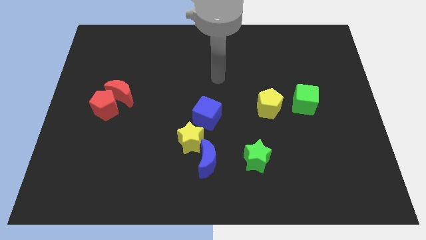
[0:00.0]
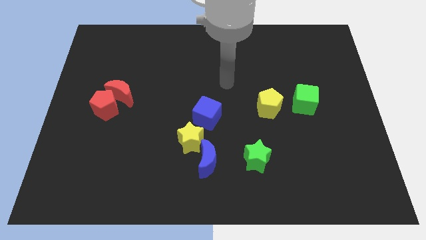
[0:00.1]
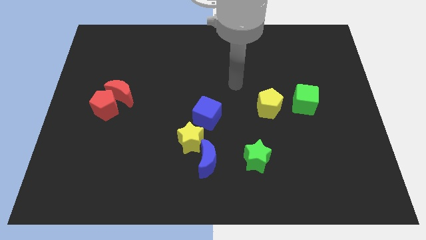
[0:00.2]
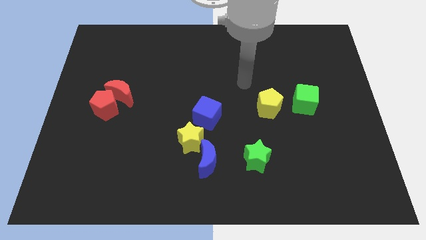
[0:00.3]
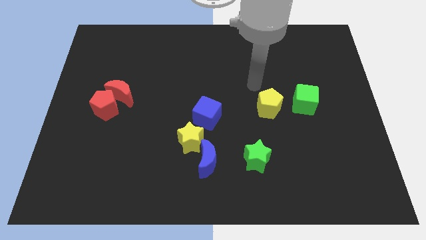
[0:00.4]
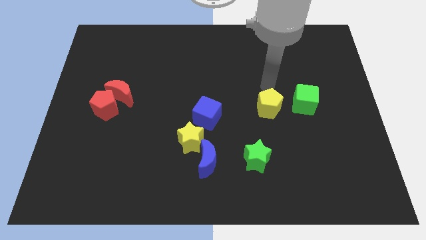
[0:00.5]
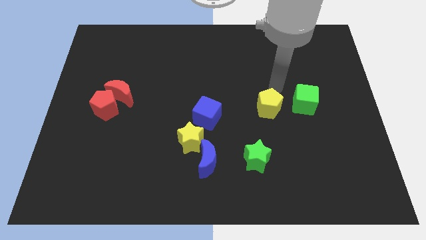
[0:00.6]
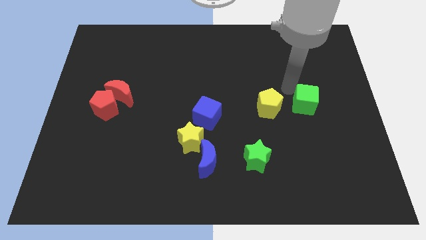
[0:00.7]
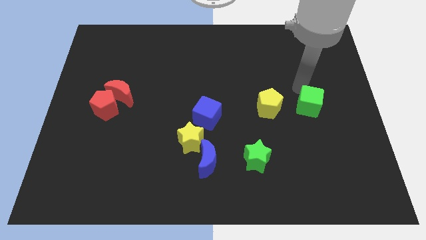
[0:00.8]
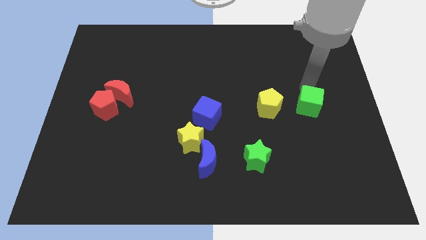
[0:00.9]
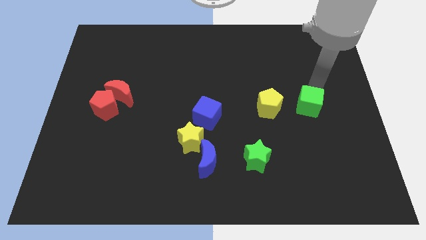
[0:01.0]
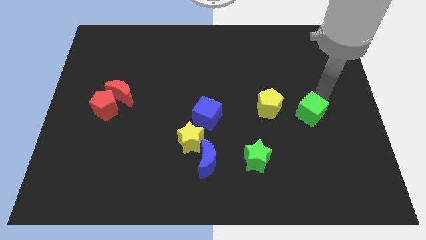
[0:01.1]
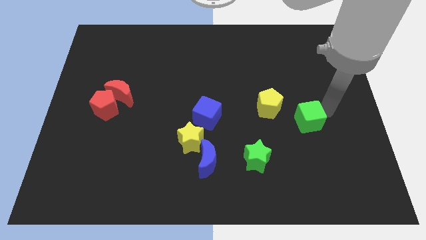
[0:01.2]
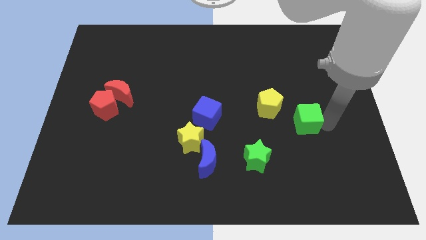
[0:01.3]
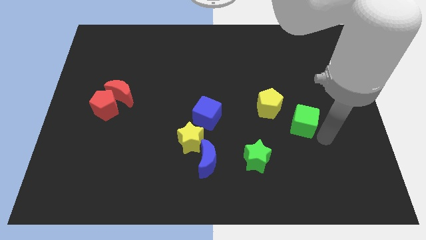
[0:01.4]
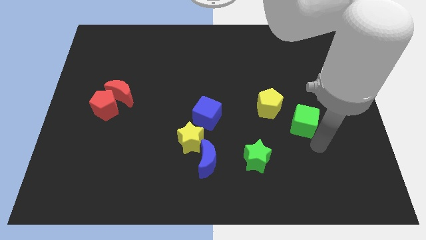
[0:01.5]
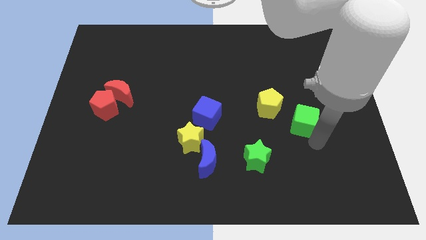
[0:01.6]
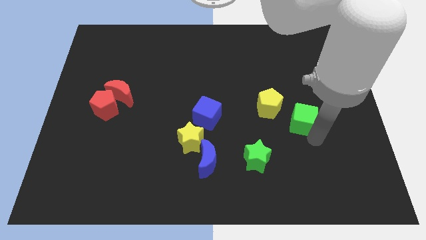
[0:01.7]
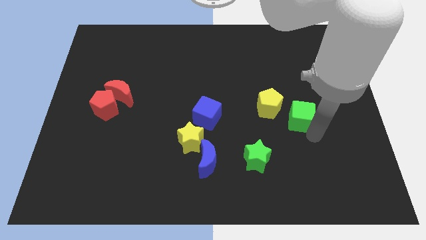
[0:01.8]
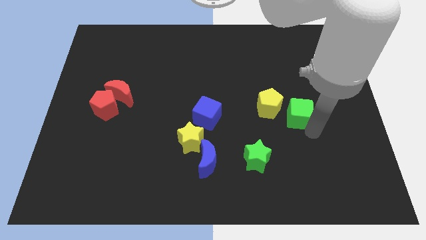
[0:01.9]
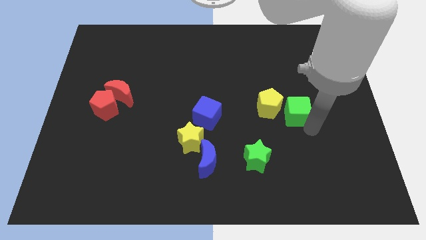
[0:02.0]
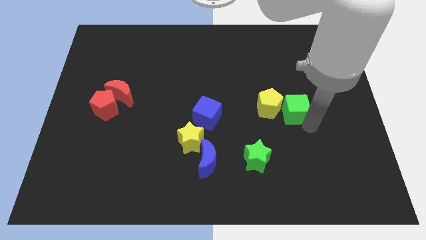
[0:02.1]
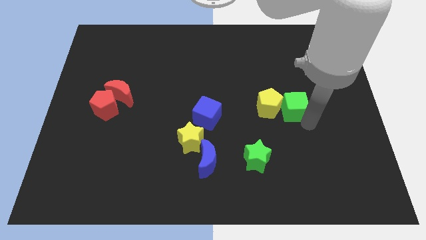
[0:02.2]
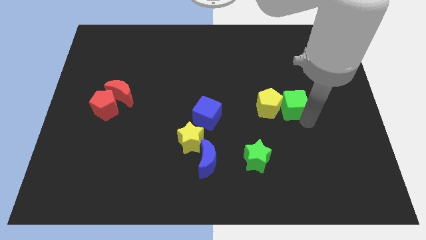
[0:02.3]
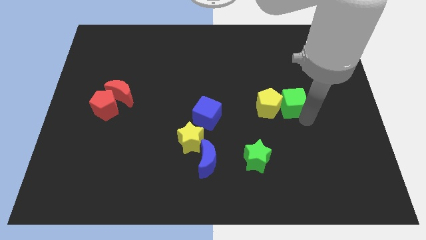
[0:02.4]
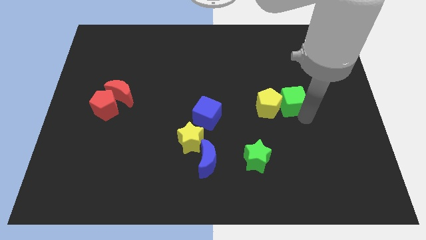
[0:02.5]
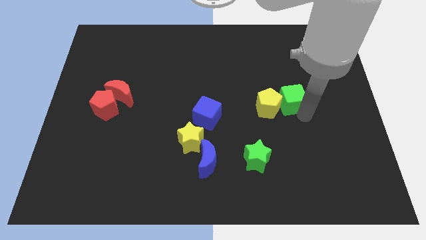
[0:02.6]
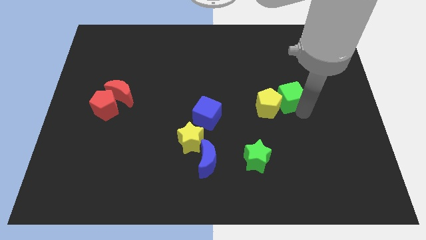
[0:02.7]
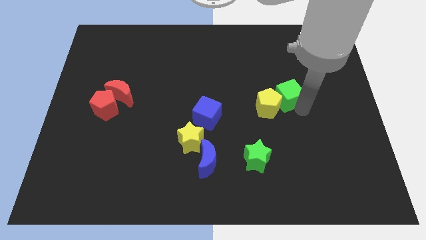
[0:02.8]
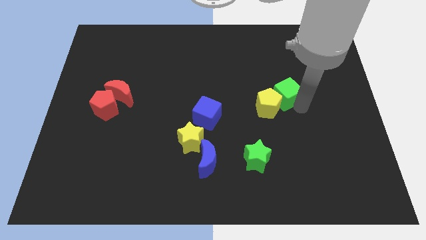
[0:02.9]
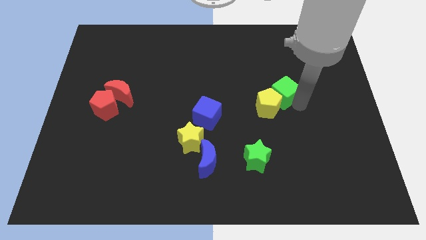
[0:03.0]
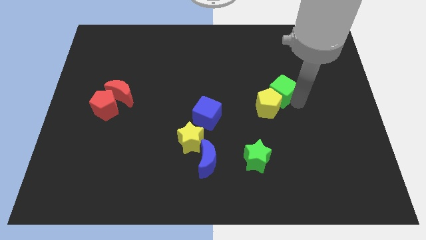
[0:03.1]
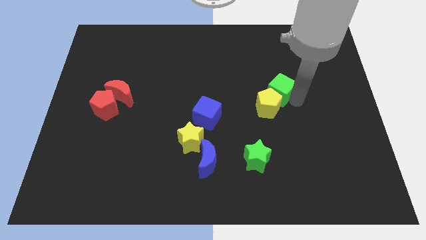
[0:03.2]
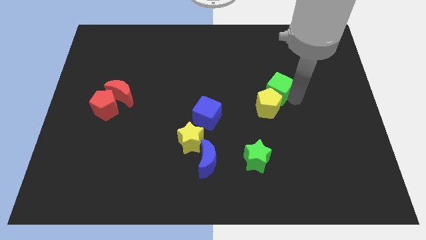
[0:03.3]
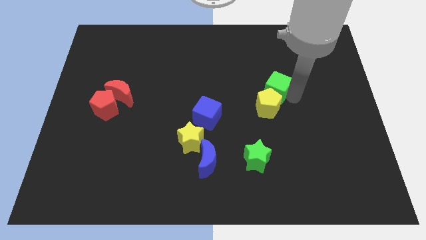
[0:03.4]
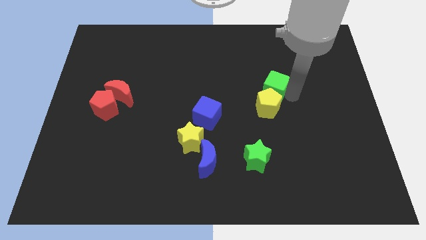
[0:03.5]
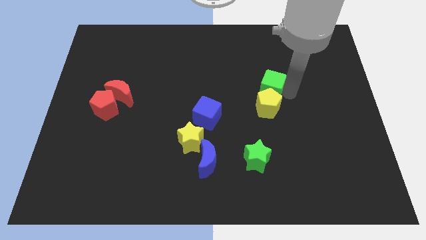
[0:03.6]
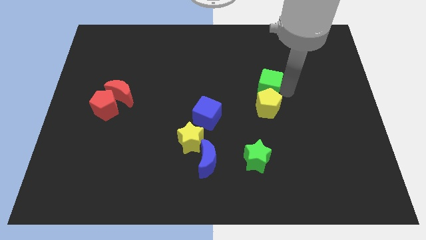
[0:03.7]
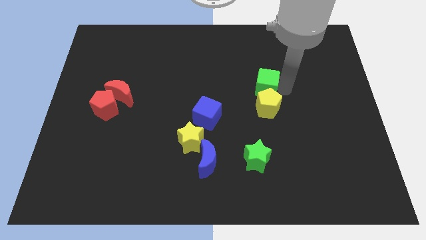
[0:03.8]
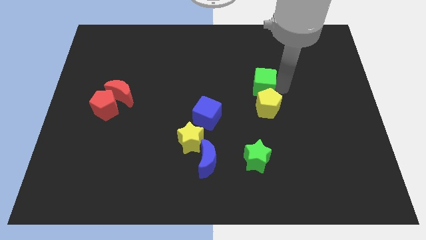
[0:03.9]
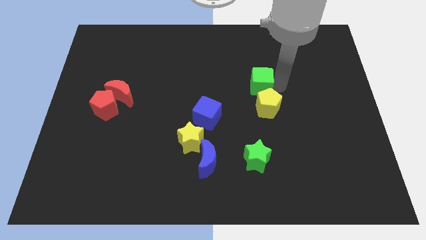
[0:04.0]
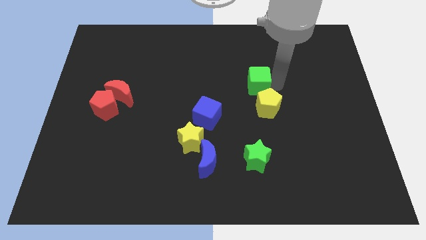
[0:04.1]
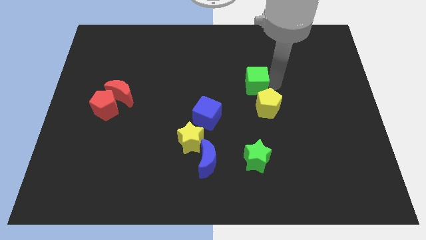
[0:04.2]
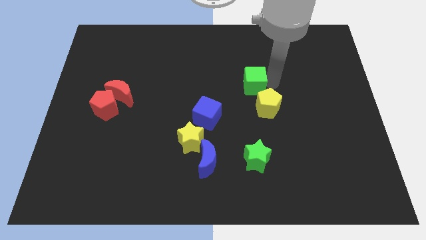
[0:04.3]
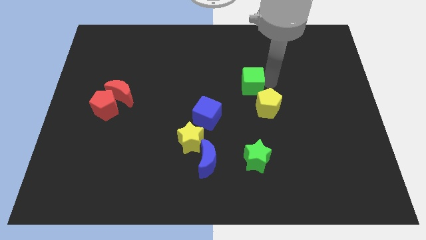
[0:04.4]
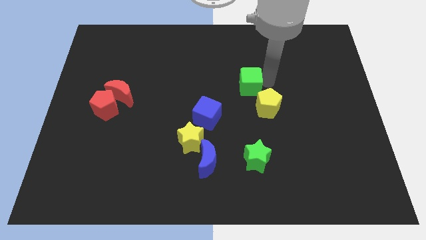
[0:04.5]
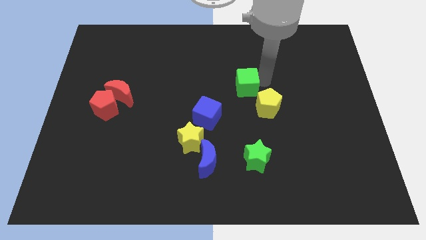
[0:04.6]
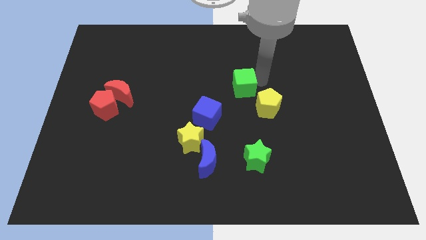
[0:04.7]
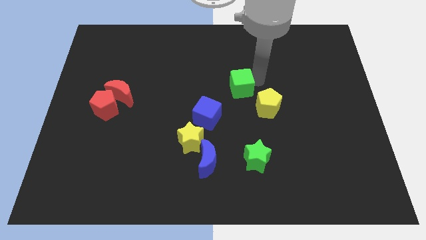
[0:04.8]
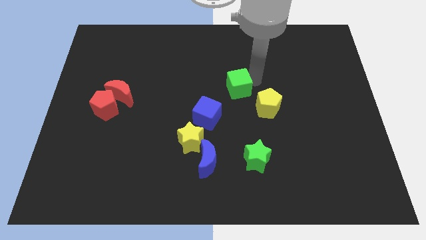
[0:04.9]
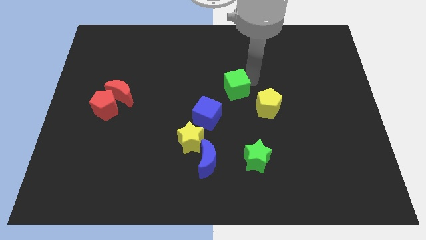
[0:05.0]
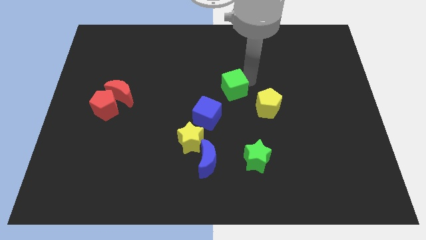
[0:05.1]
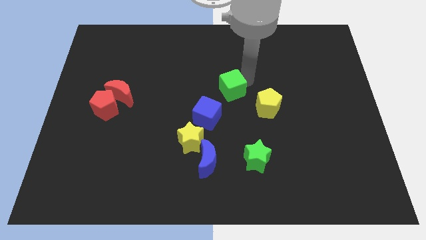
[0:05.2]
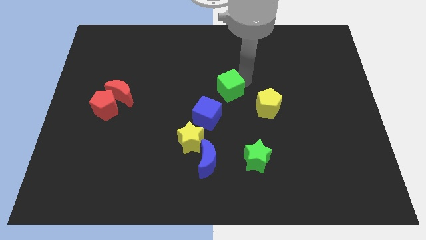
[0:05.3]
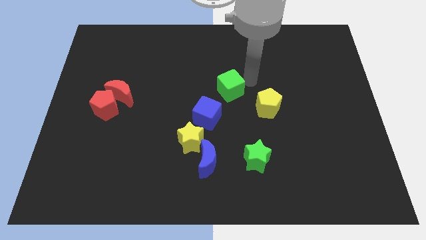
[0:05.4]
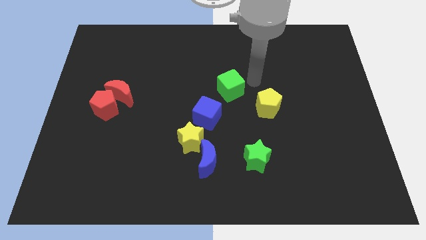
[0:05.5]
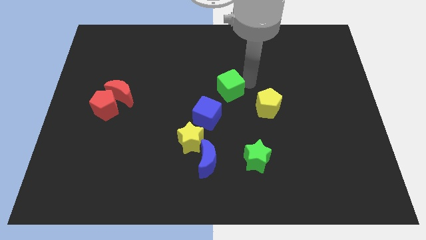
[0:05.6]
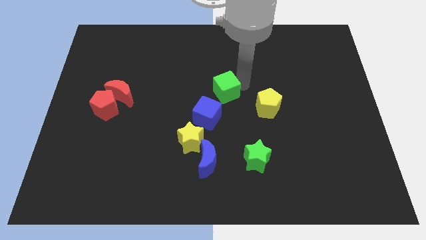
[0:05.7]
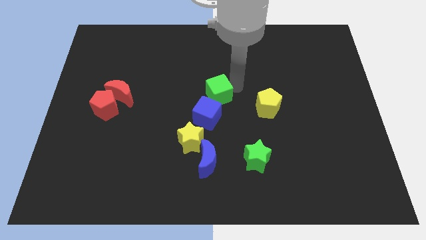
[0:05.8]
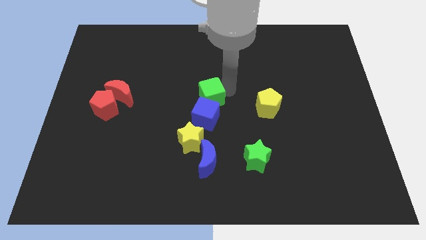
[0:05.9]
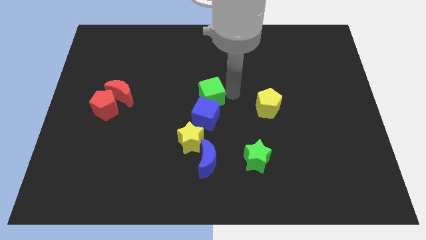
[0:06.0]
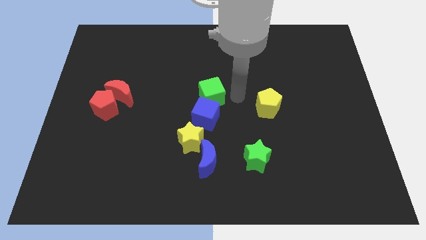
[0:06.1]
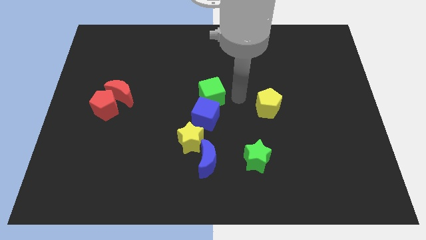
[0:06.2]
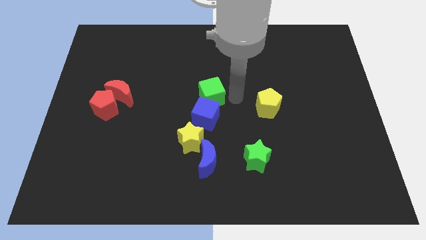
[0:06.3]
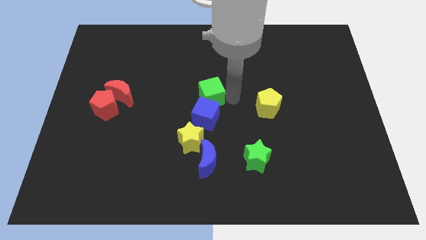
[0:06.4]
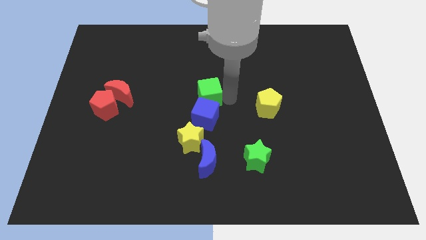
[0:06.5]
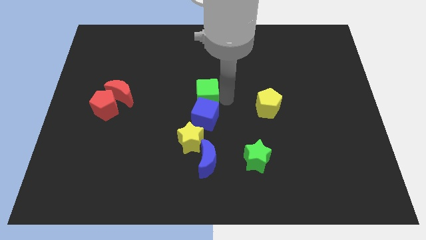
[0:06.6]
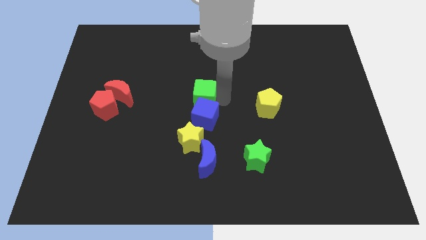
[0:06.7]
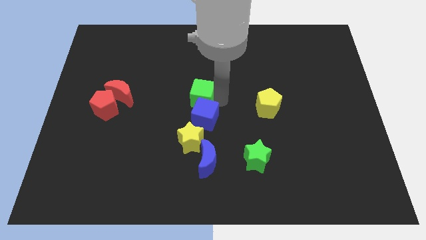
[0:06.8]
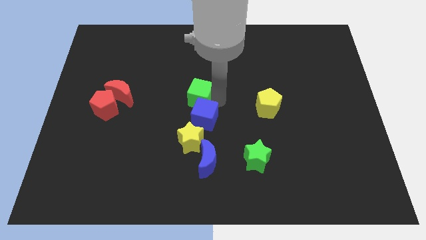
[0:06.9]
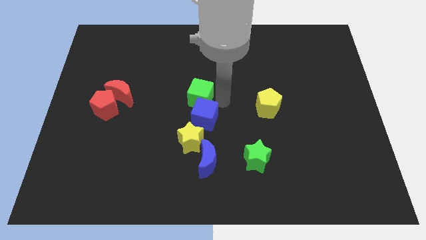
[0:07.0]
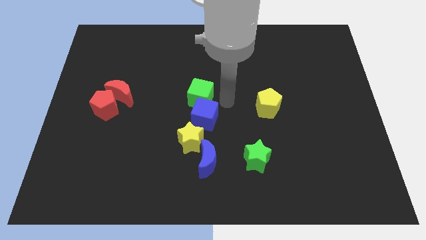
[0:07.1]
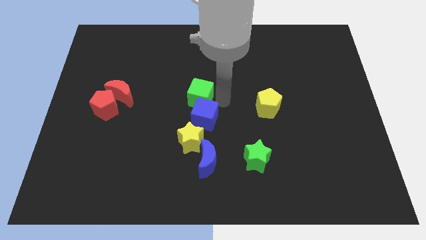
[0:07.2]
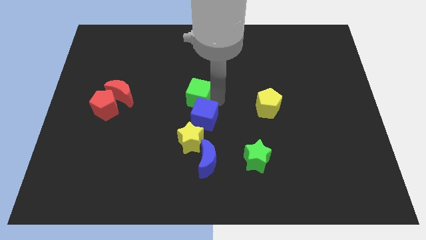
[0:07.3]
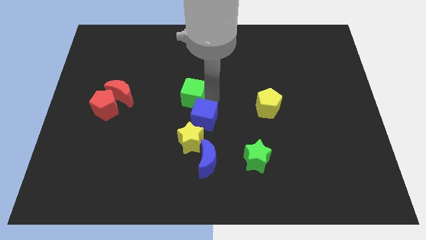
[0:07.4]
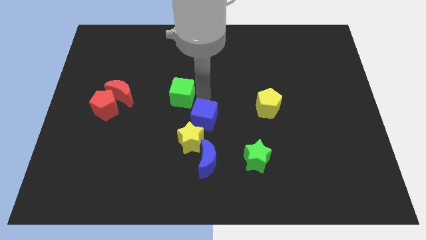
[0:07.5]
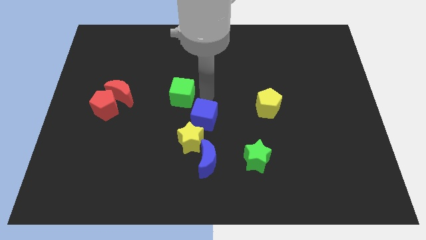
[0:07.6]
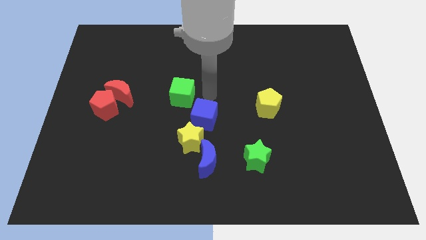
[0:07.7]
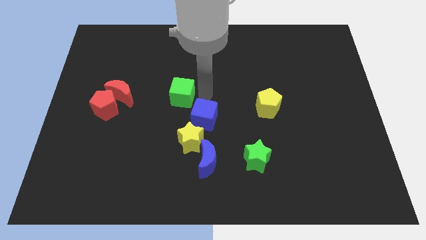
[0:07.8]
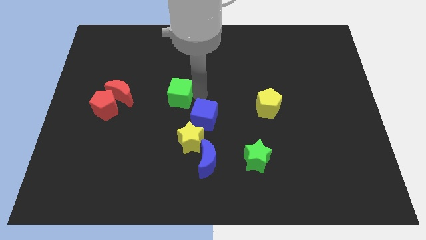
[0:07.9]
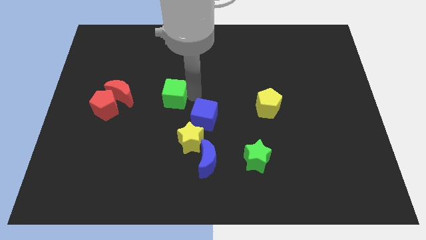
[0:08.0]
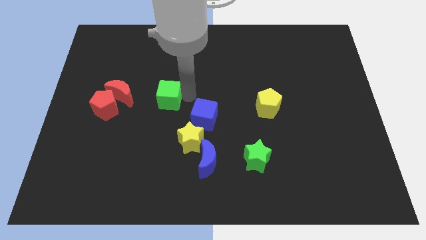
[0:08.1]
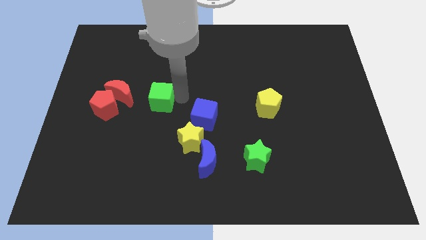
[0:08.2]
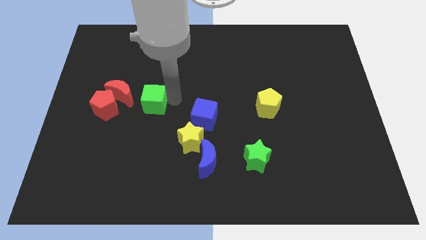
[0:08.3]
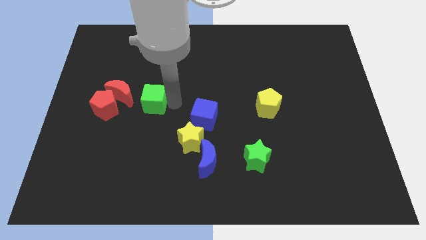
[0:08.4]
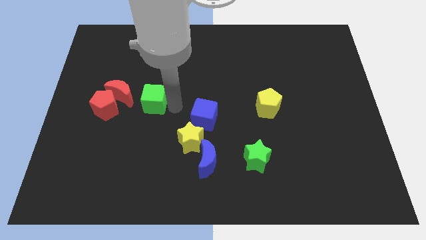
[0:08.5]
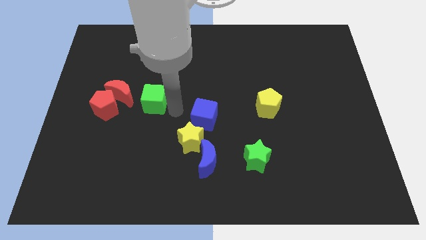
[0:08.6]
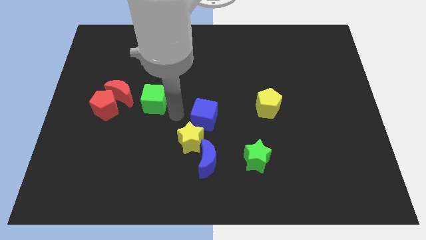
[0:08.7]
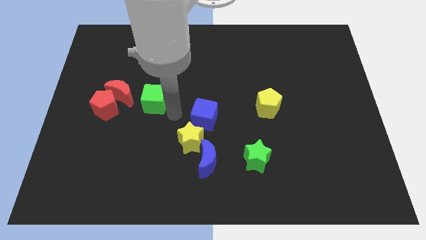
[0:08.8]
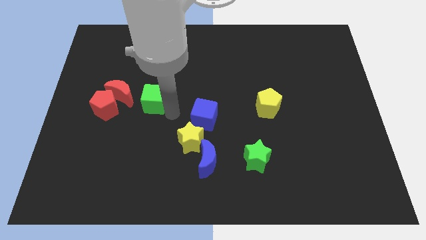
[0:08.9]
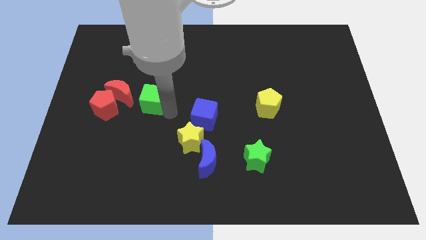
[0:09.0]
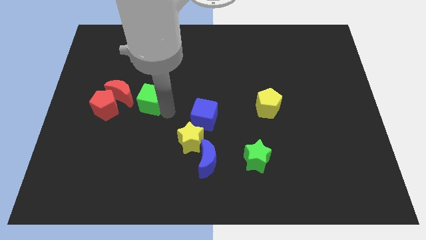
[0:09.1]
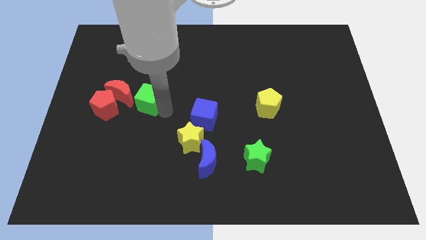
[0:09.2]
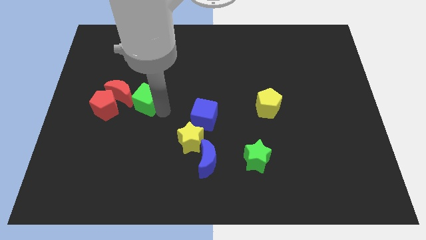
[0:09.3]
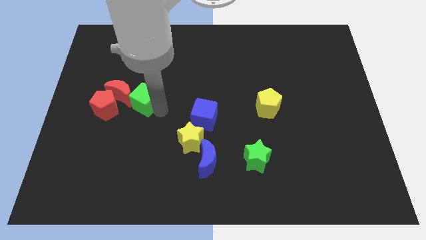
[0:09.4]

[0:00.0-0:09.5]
put the green cube close to the red moon
